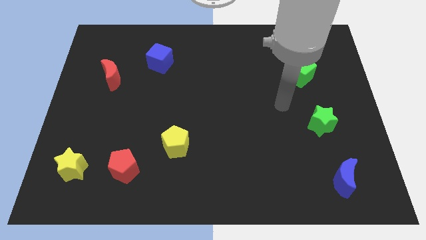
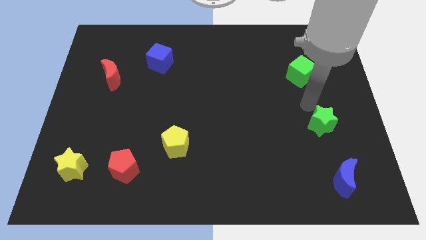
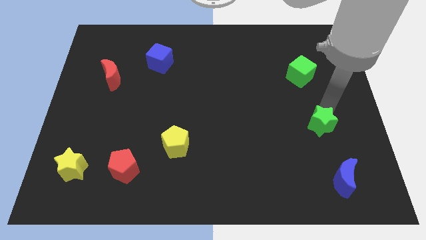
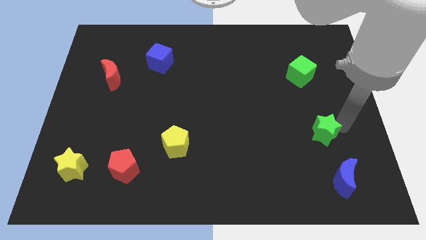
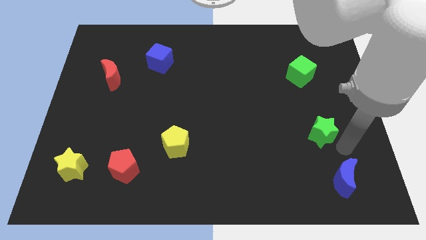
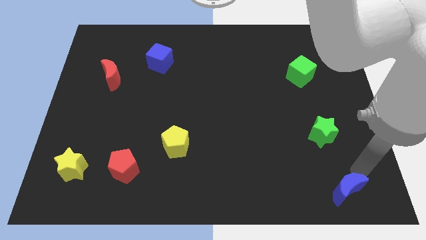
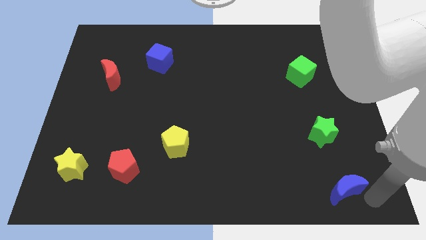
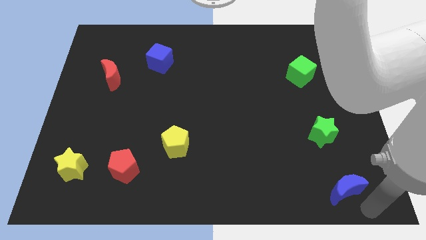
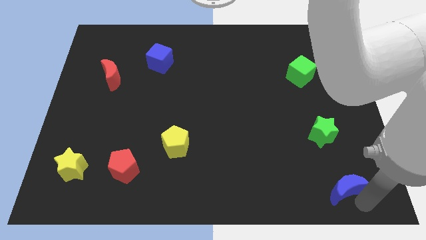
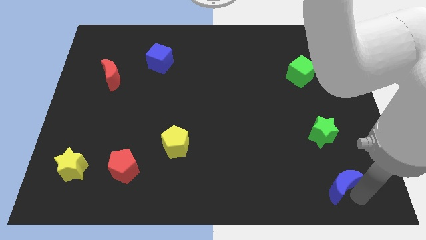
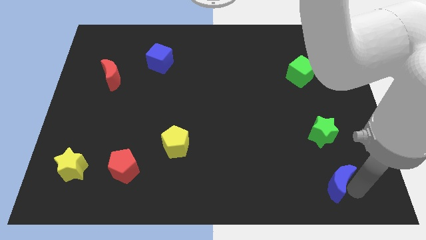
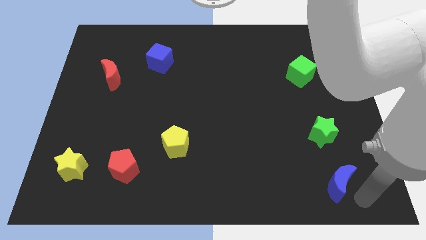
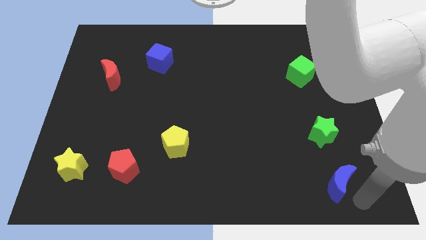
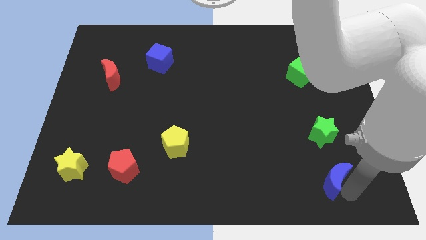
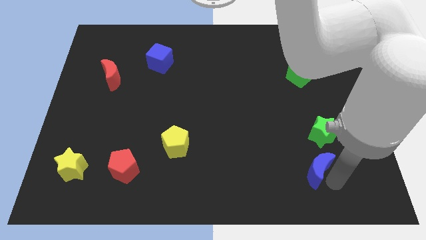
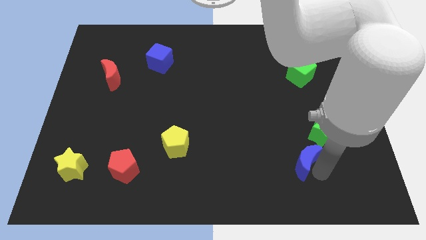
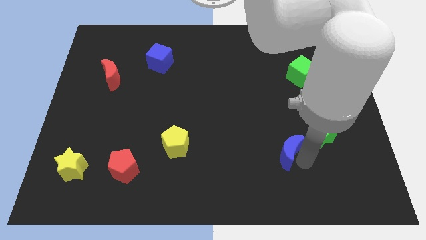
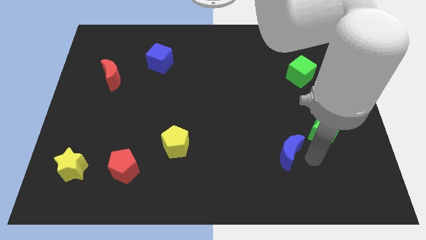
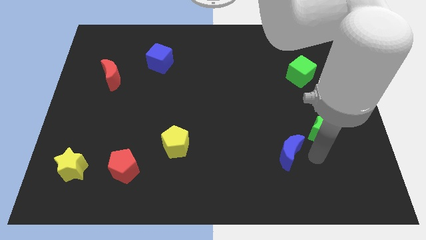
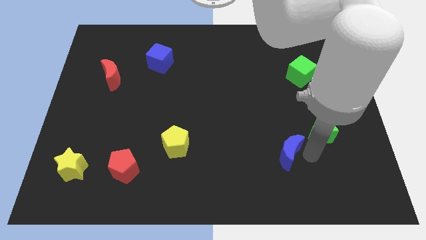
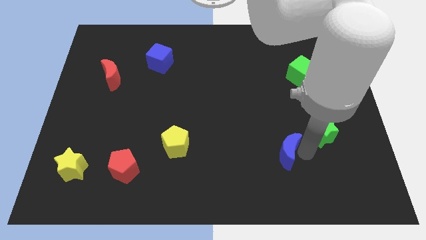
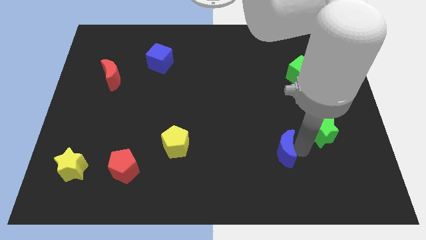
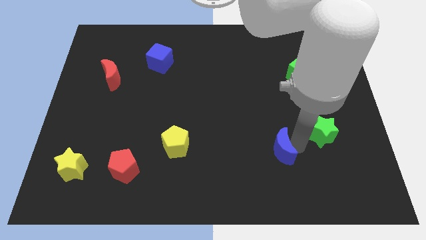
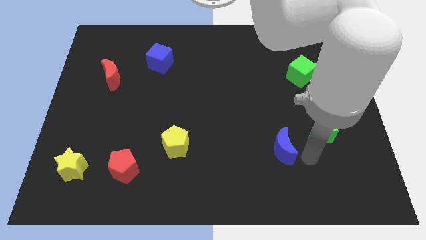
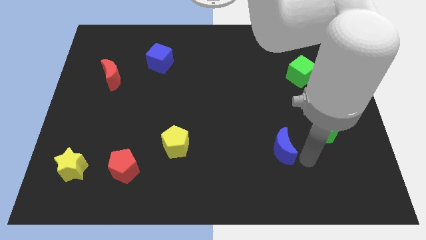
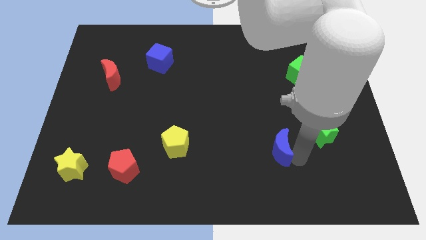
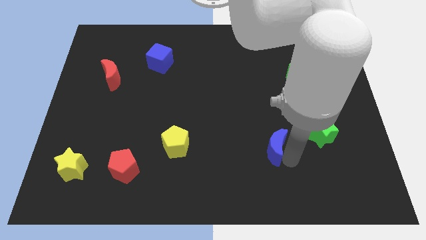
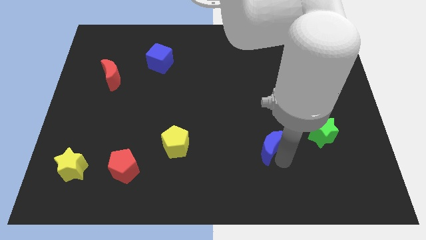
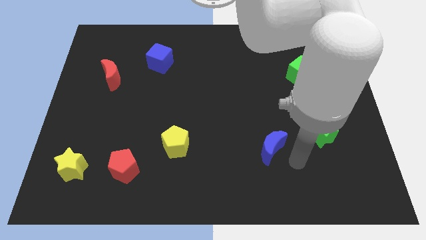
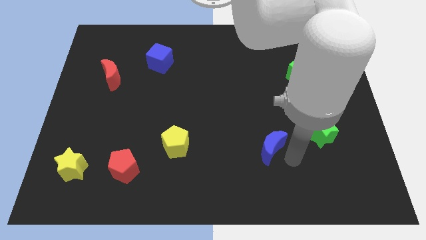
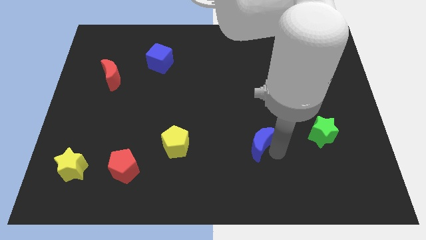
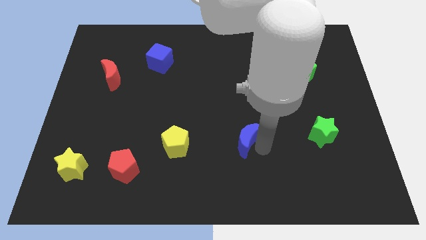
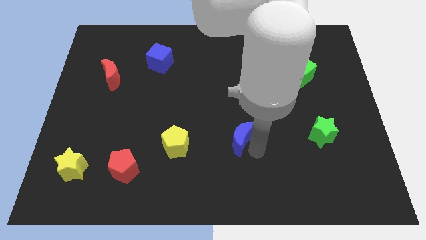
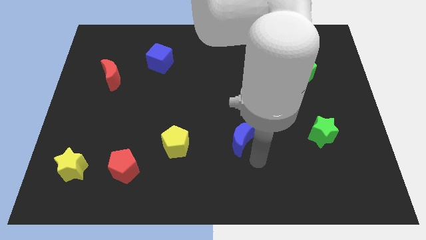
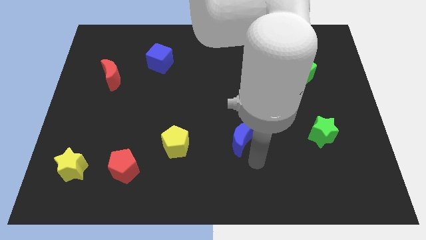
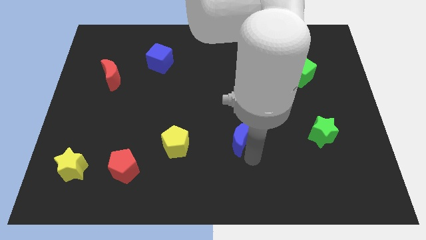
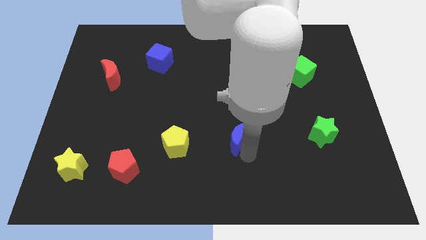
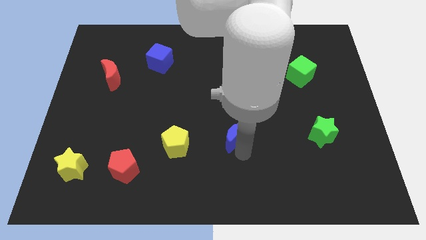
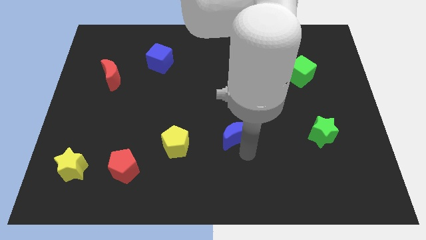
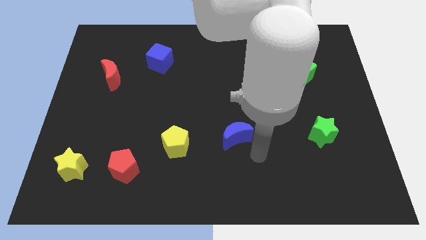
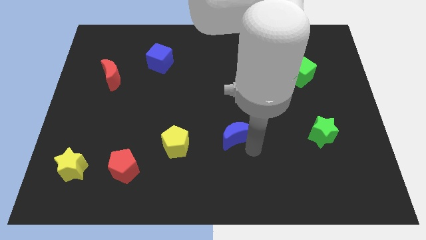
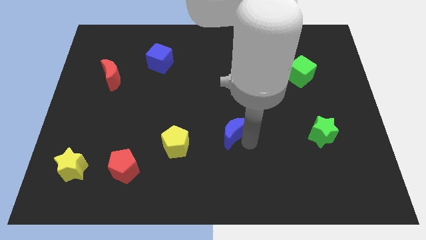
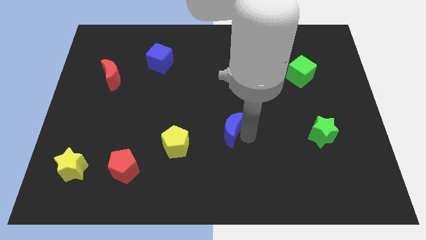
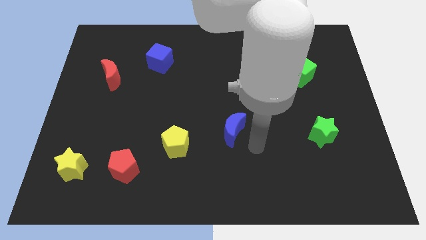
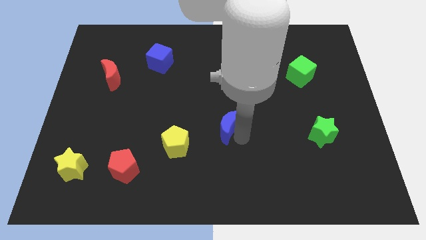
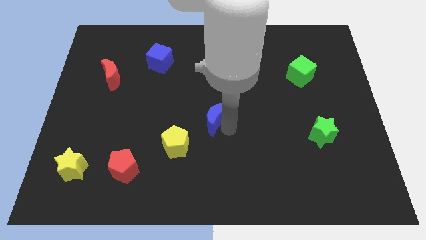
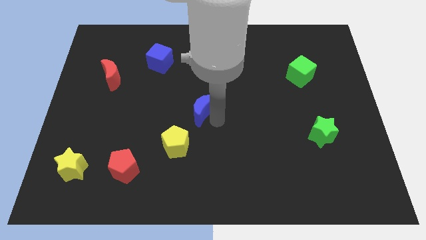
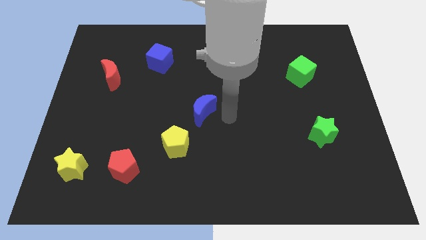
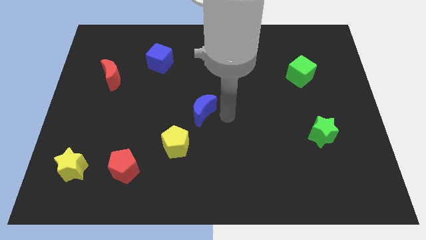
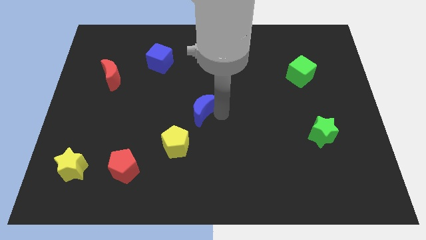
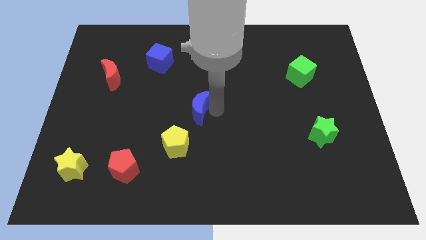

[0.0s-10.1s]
put the blue moon to the top side of the yellow pentagon

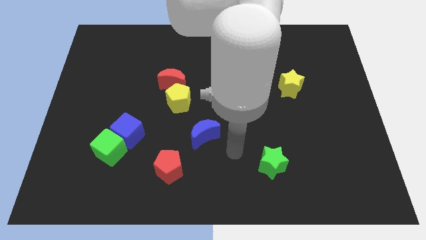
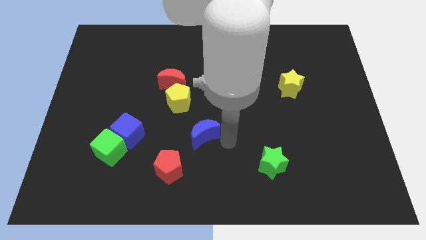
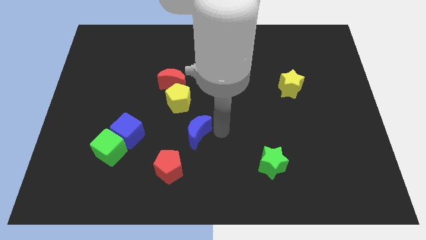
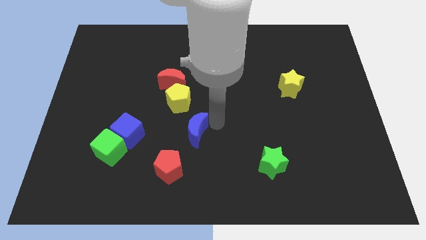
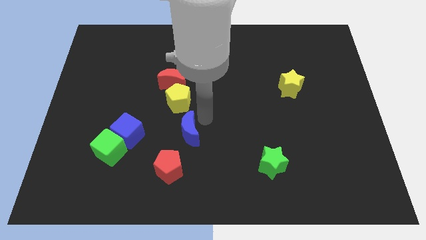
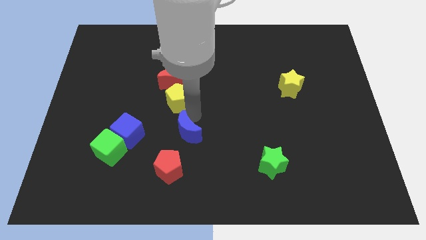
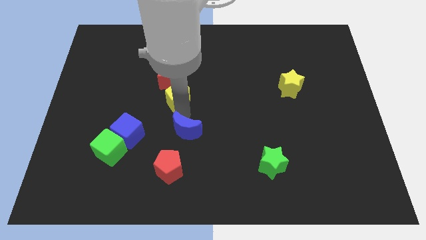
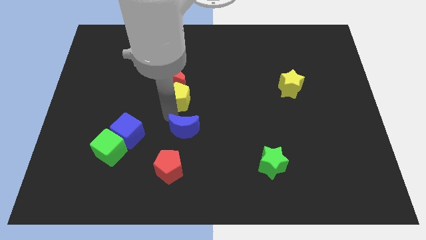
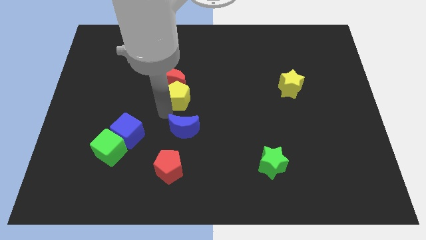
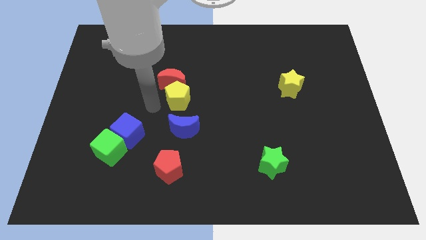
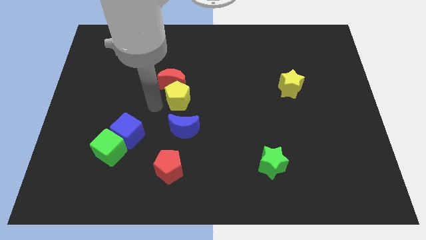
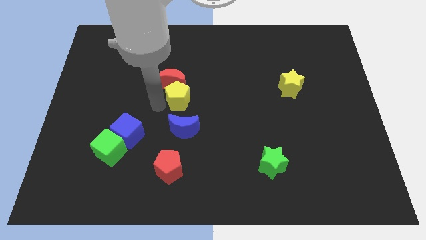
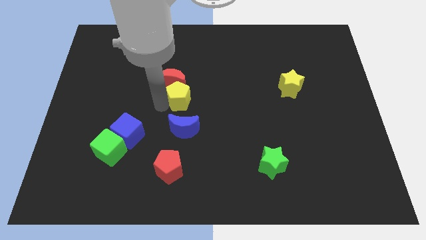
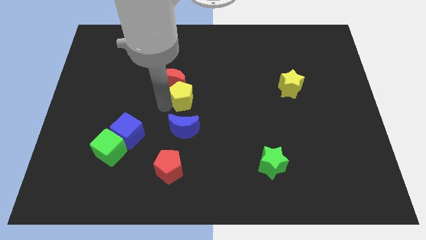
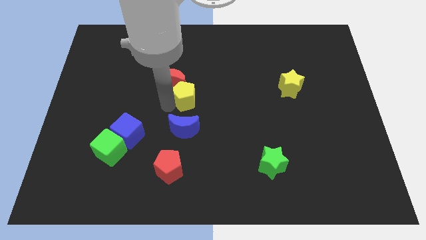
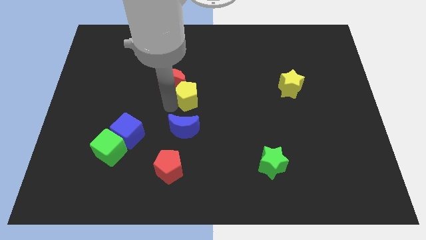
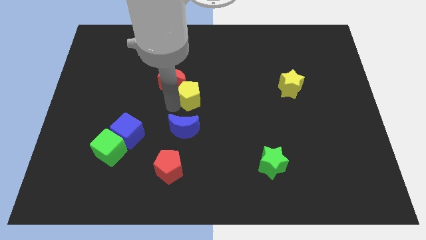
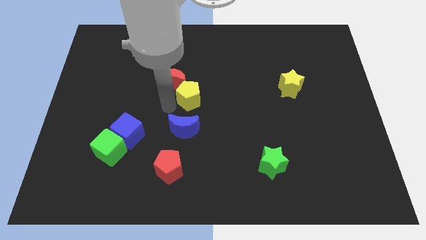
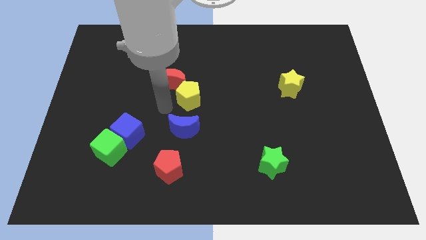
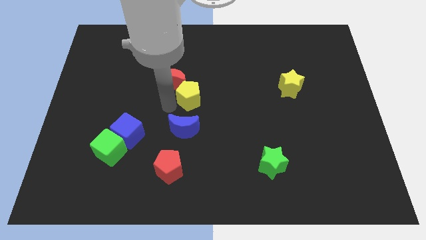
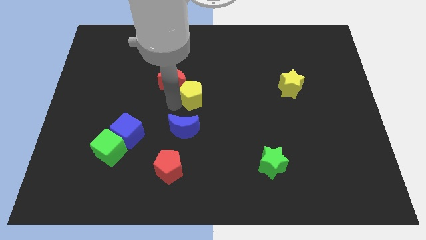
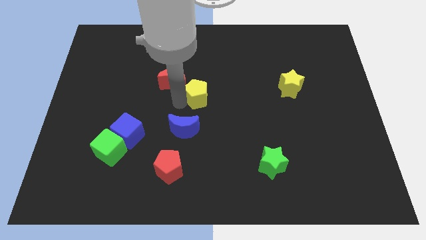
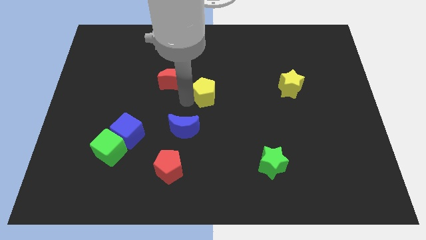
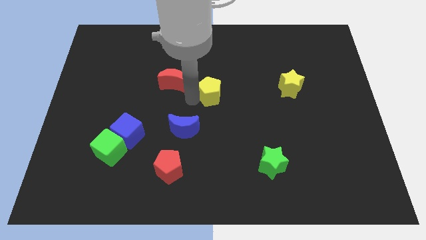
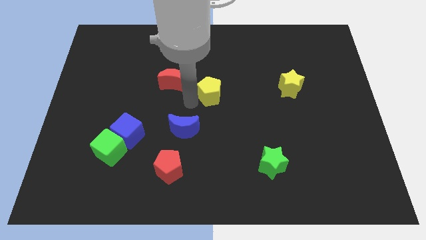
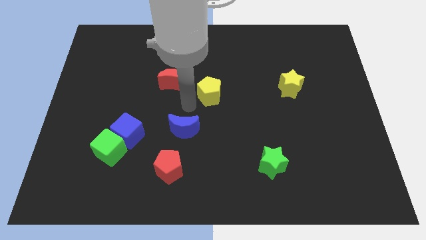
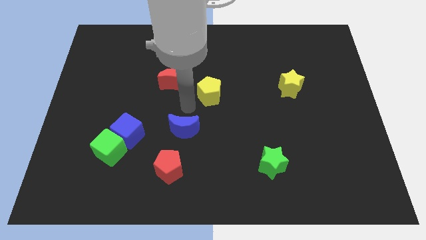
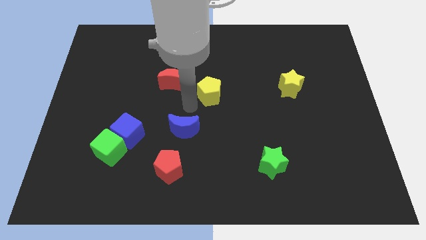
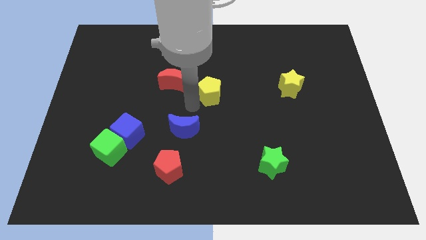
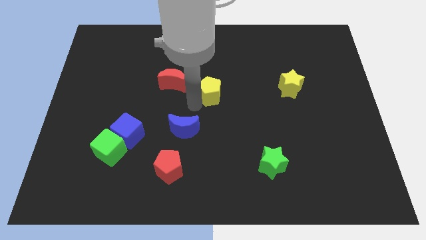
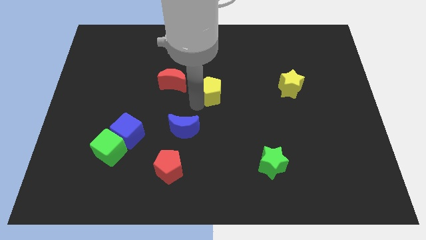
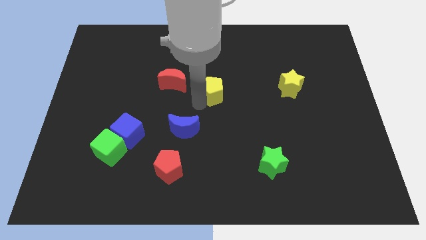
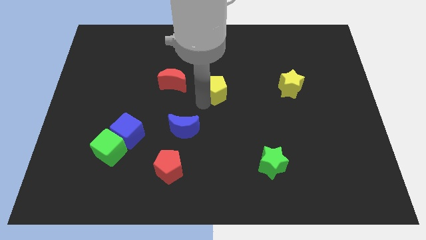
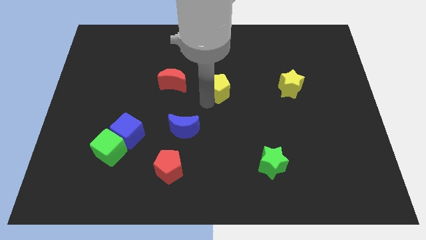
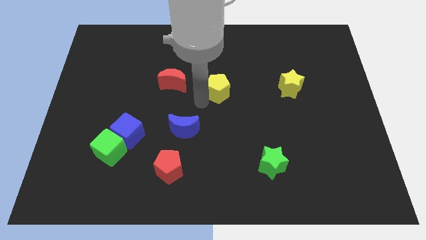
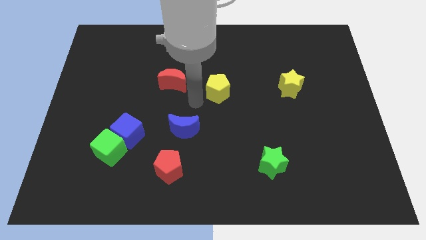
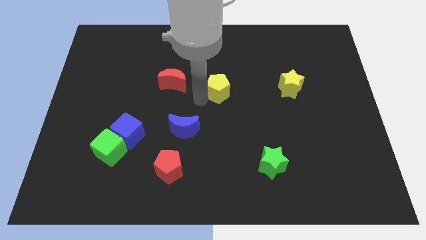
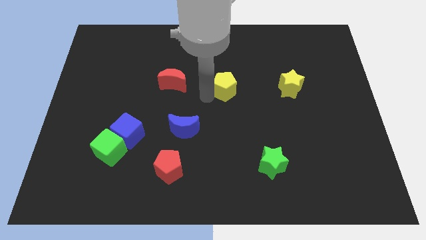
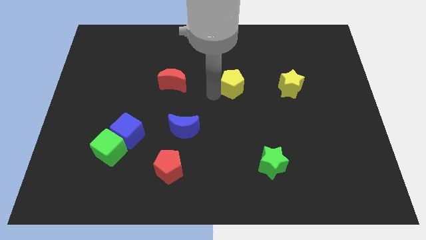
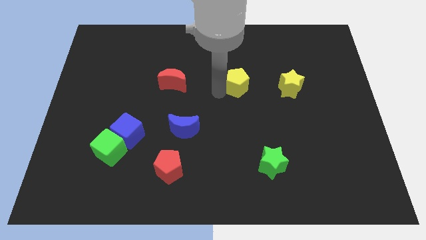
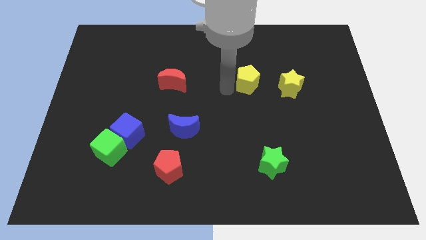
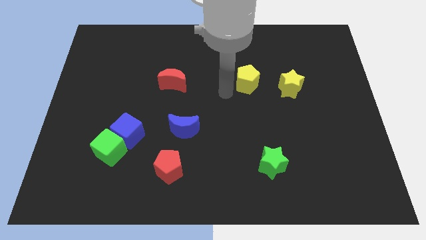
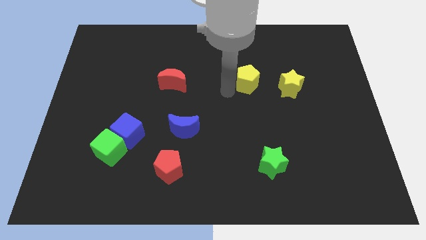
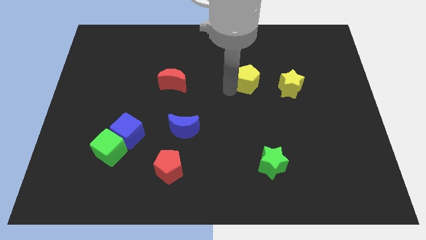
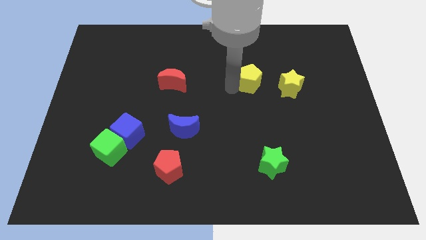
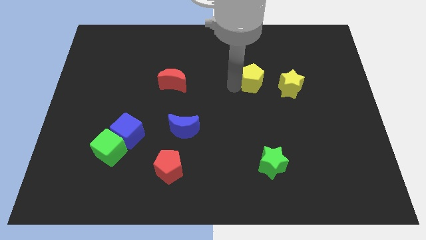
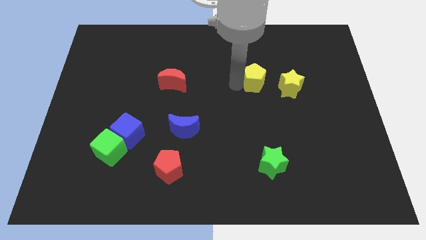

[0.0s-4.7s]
push the yellow pentagon to the top left side of the yellow star
